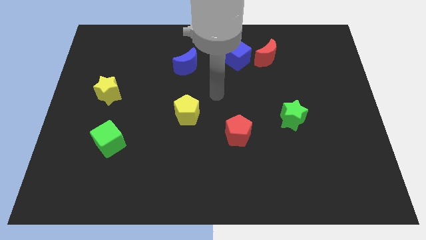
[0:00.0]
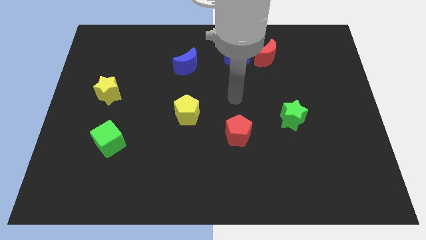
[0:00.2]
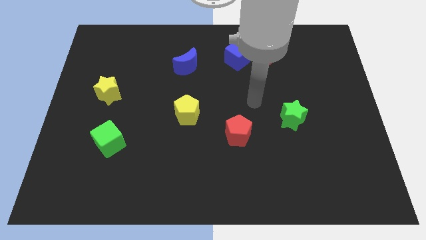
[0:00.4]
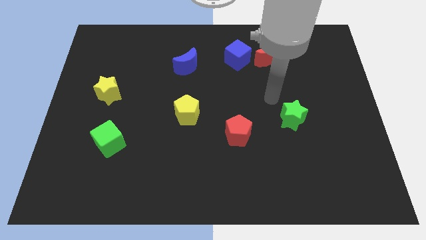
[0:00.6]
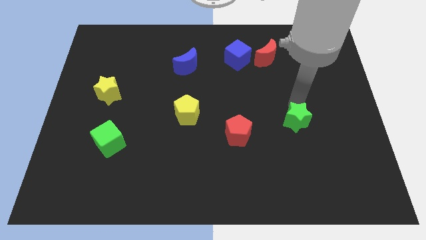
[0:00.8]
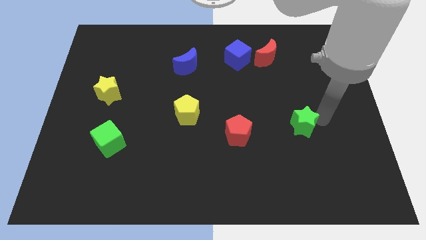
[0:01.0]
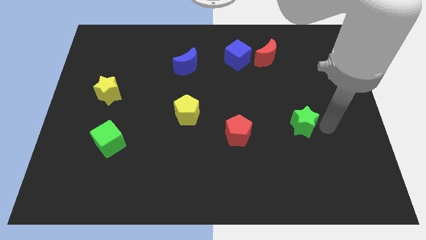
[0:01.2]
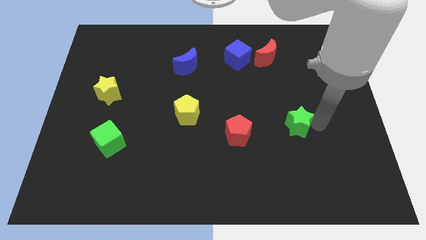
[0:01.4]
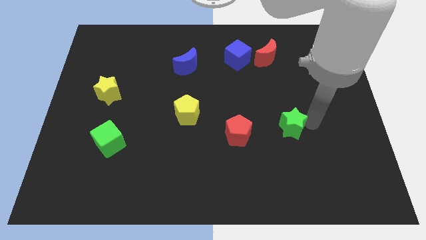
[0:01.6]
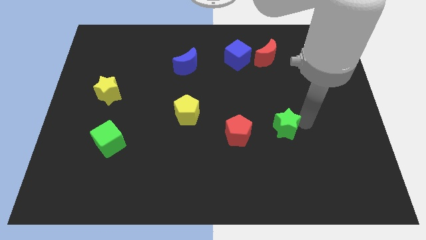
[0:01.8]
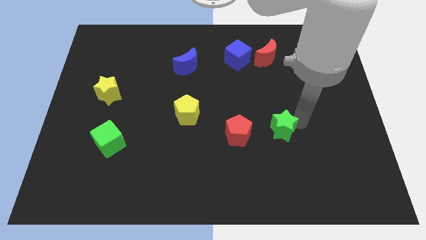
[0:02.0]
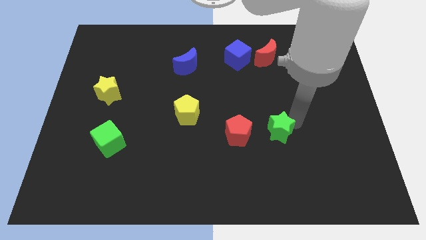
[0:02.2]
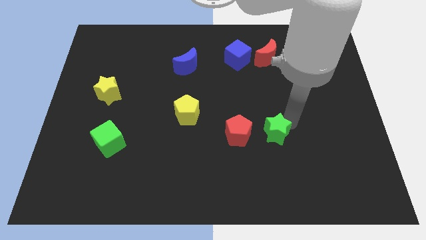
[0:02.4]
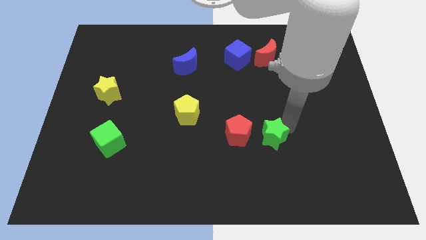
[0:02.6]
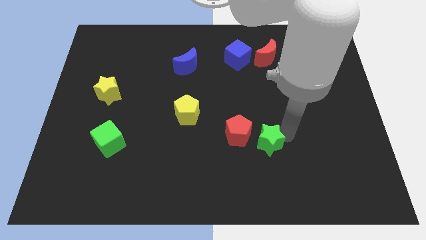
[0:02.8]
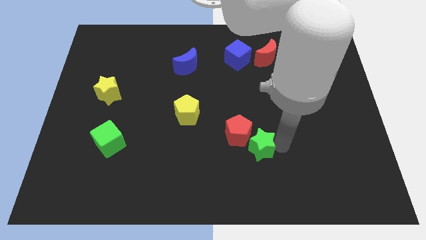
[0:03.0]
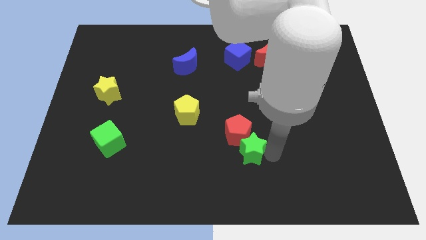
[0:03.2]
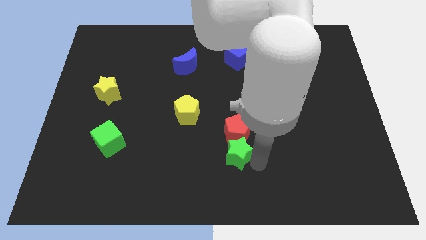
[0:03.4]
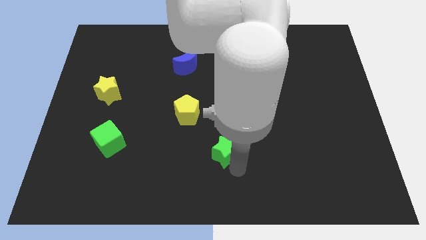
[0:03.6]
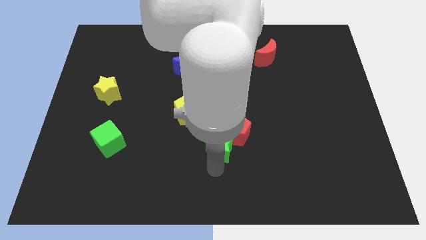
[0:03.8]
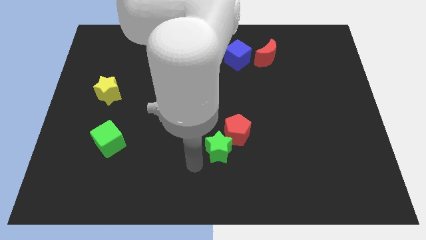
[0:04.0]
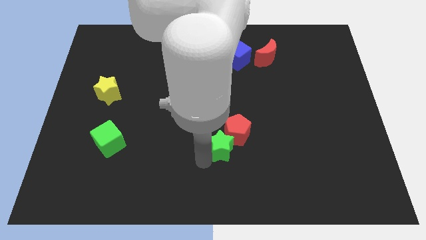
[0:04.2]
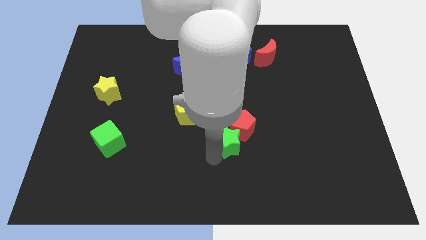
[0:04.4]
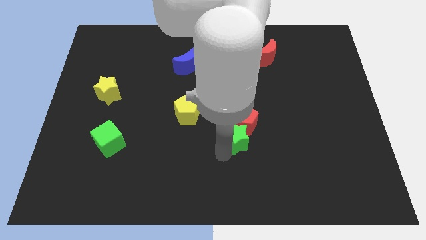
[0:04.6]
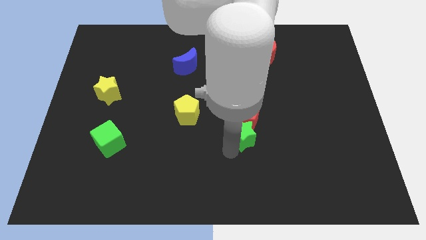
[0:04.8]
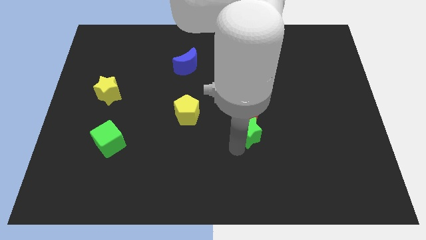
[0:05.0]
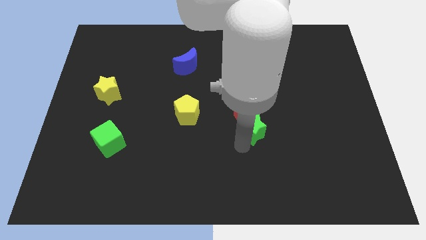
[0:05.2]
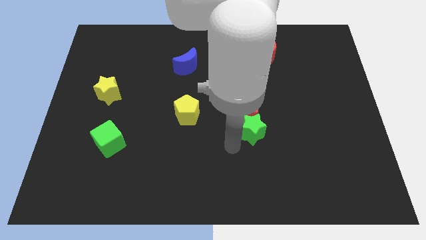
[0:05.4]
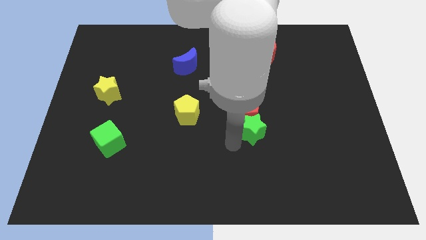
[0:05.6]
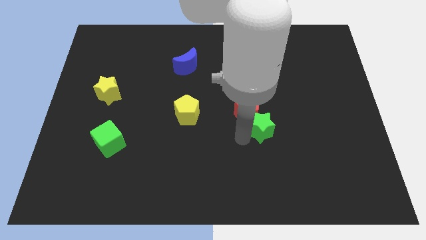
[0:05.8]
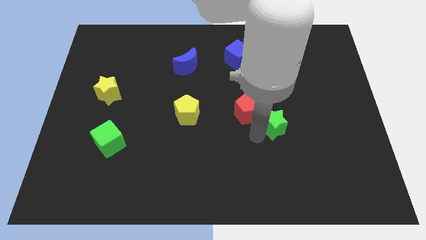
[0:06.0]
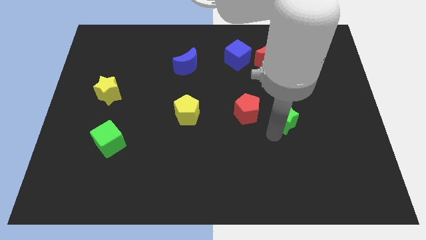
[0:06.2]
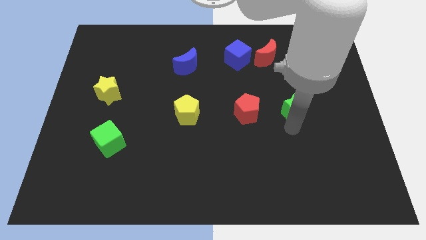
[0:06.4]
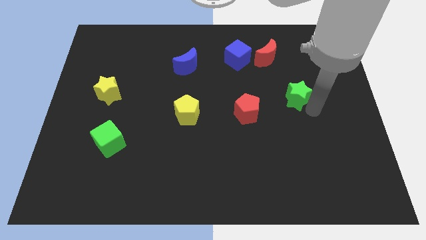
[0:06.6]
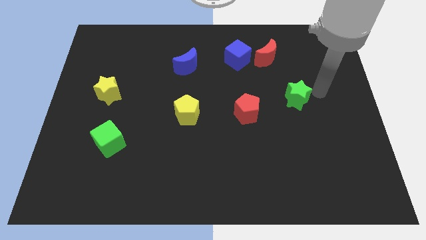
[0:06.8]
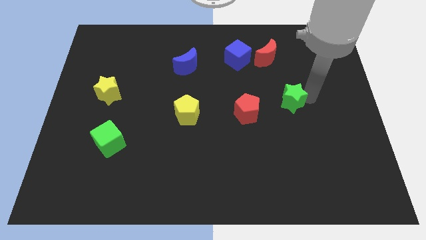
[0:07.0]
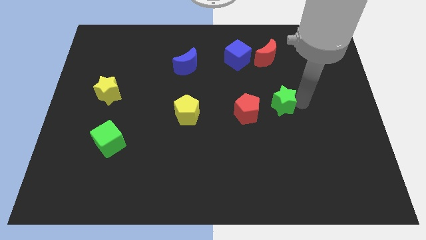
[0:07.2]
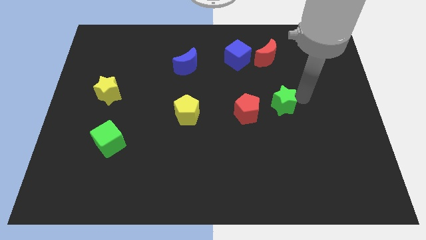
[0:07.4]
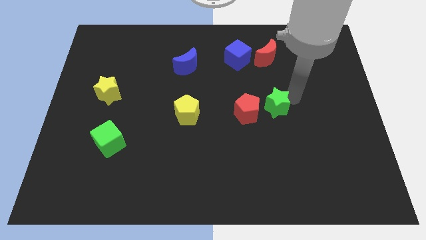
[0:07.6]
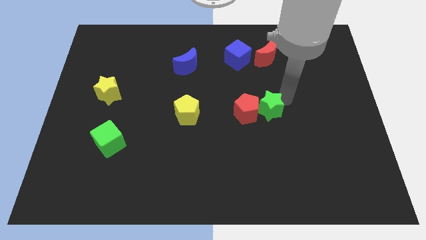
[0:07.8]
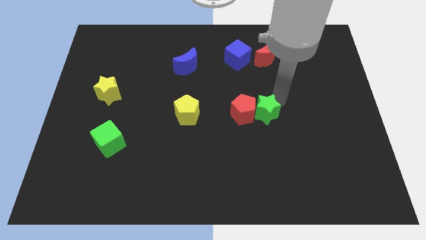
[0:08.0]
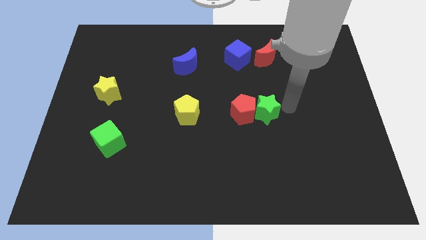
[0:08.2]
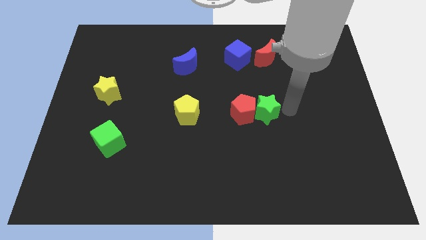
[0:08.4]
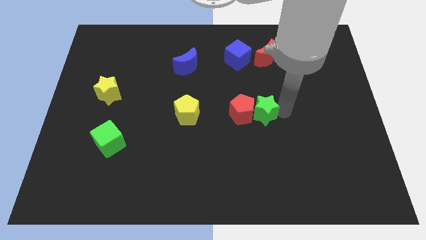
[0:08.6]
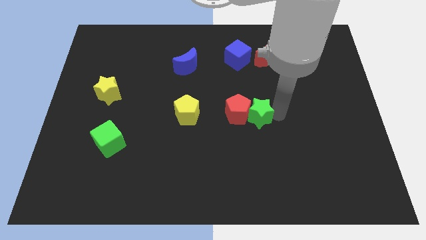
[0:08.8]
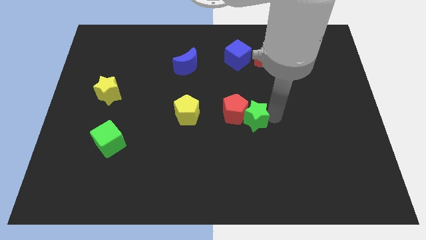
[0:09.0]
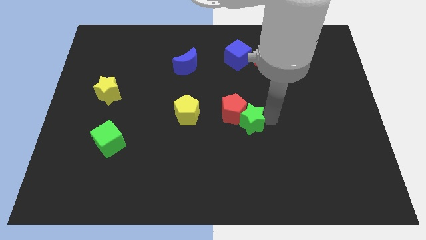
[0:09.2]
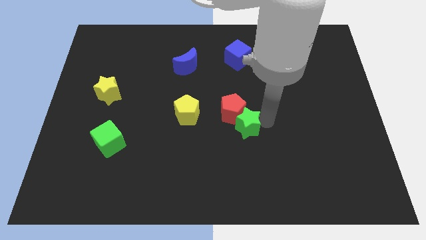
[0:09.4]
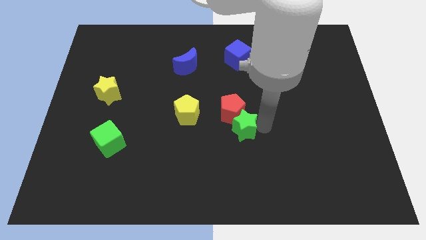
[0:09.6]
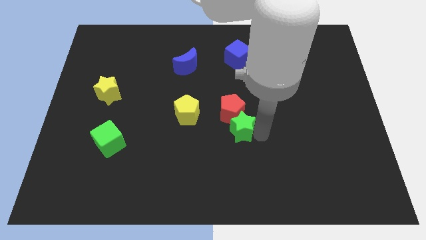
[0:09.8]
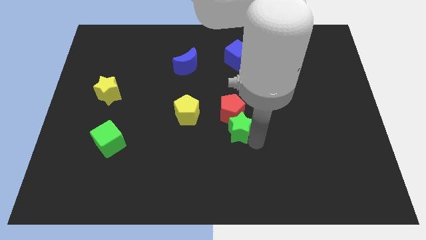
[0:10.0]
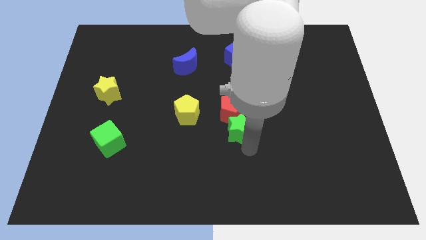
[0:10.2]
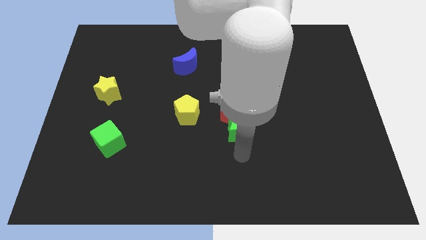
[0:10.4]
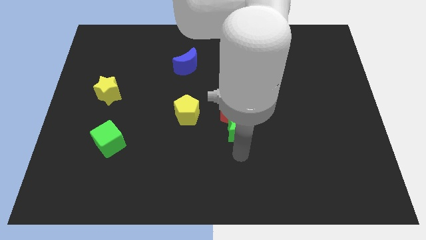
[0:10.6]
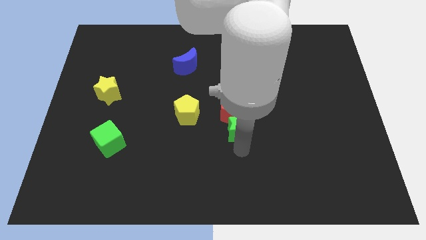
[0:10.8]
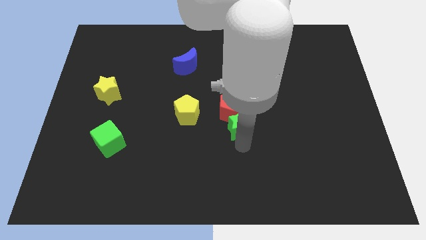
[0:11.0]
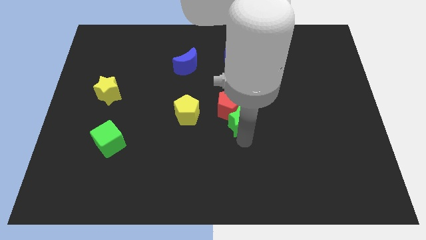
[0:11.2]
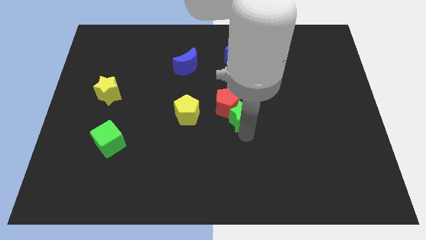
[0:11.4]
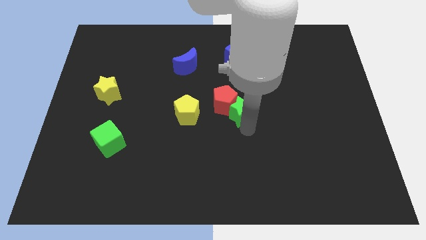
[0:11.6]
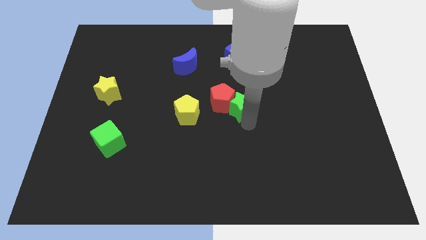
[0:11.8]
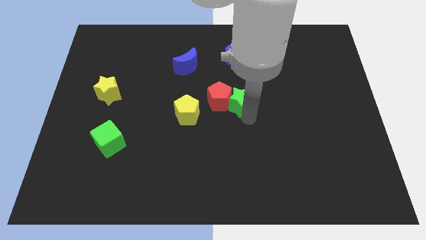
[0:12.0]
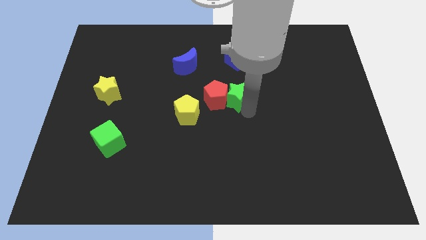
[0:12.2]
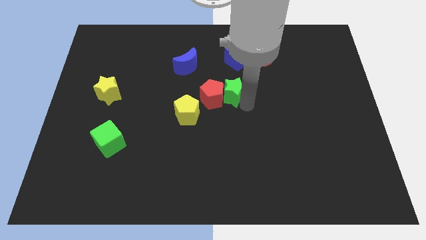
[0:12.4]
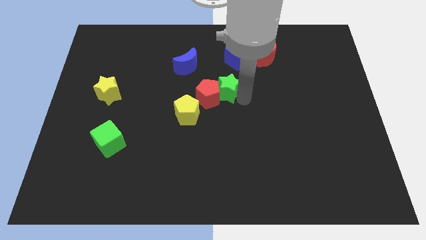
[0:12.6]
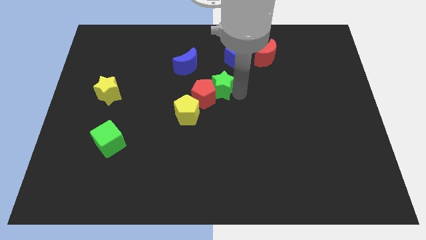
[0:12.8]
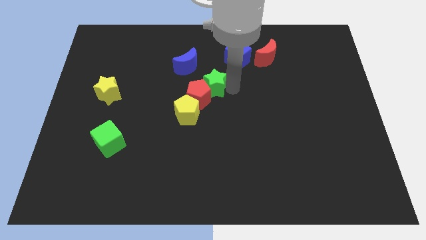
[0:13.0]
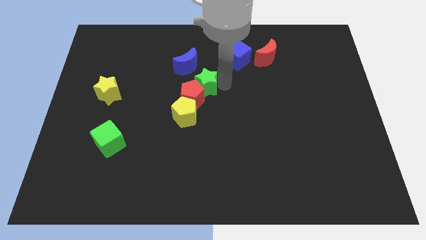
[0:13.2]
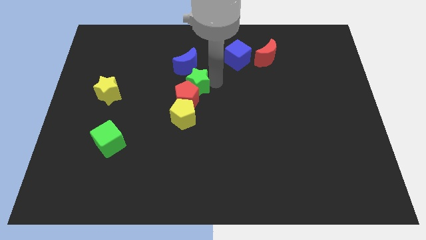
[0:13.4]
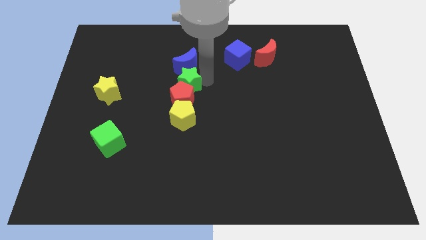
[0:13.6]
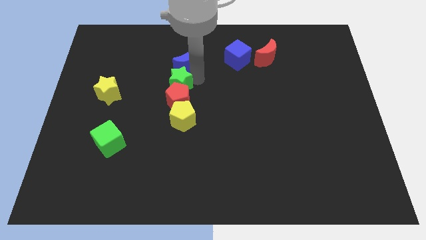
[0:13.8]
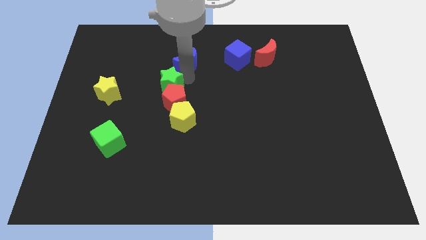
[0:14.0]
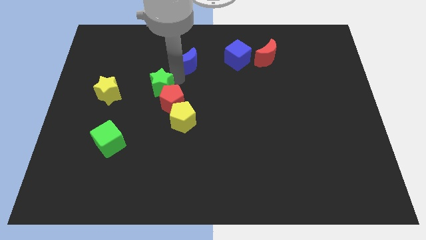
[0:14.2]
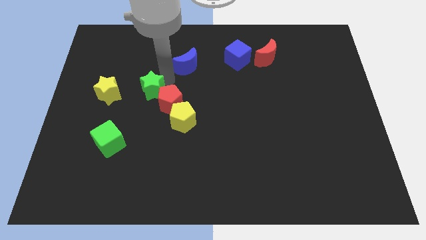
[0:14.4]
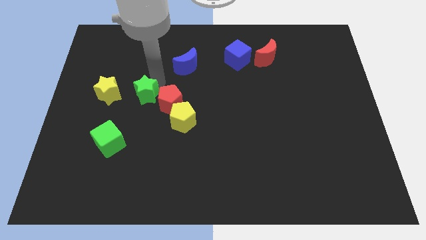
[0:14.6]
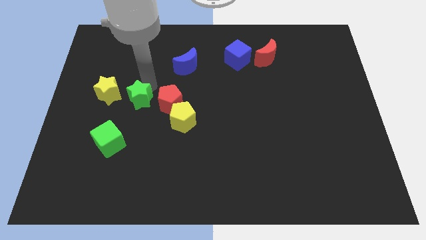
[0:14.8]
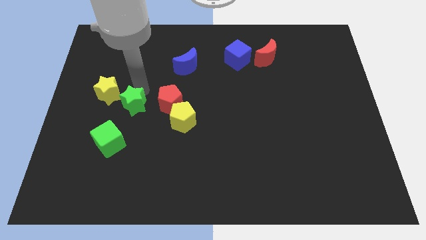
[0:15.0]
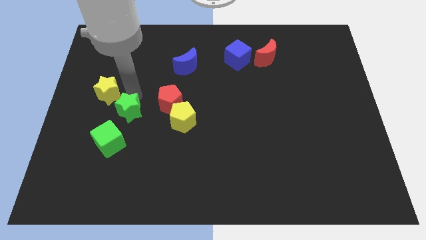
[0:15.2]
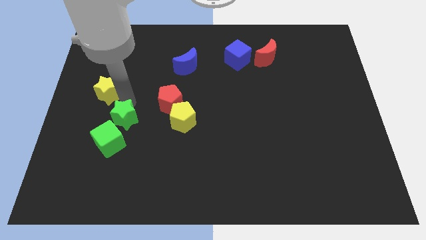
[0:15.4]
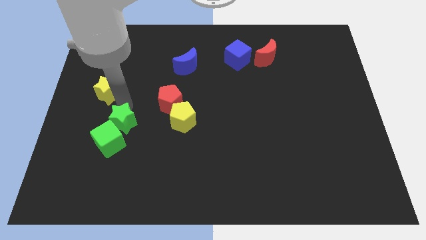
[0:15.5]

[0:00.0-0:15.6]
put the green star close to the green cube
